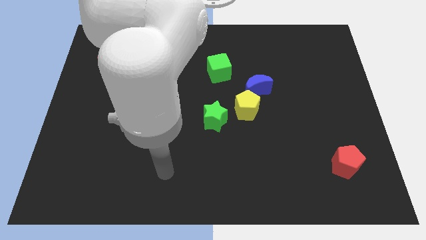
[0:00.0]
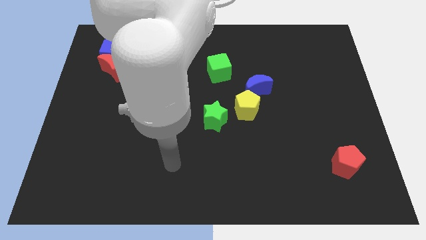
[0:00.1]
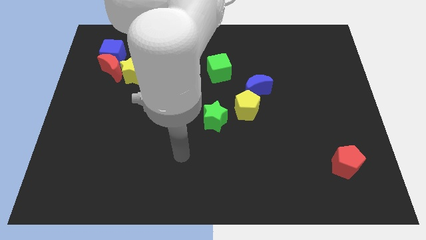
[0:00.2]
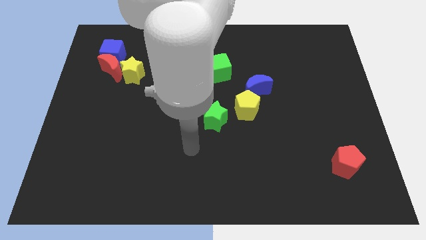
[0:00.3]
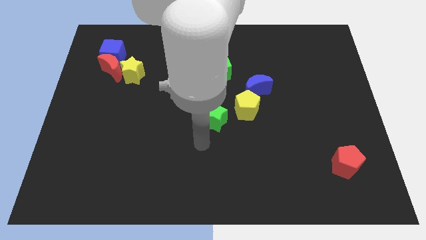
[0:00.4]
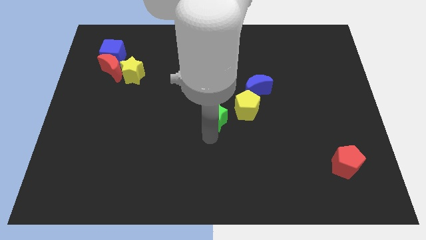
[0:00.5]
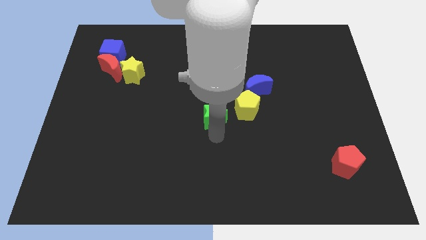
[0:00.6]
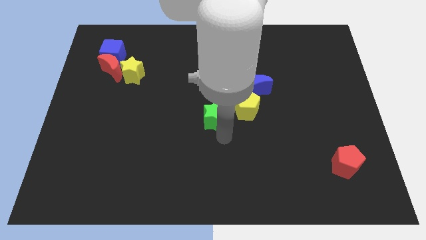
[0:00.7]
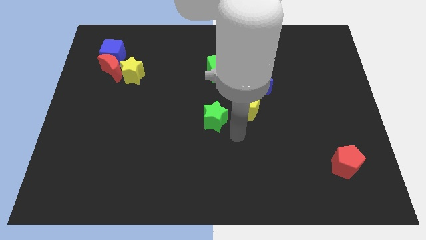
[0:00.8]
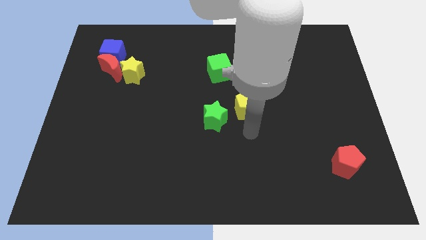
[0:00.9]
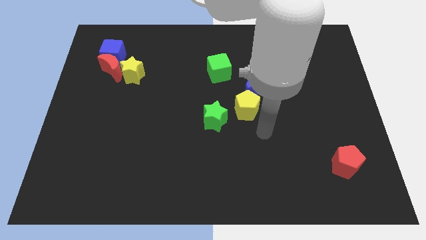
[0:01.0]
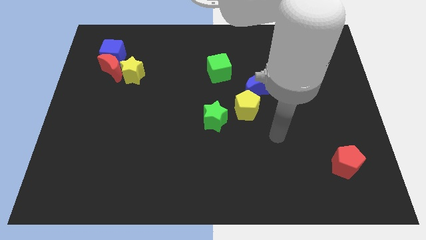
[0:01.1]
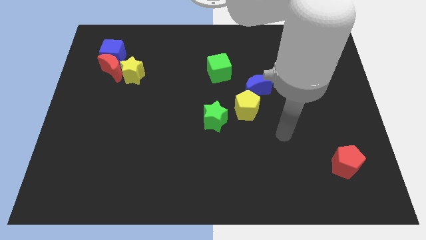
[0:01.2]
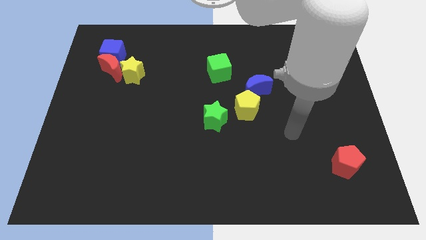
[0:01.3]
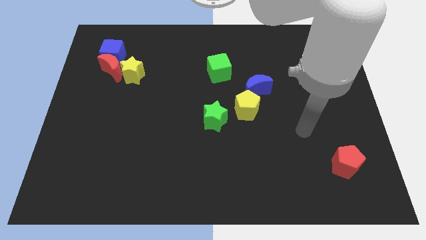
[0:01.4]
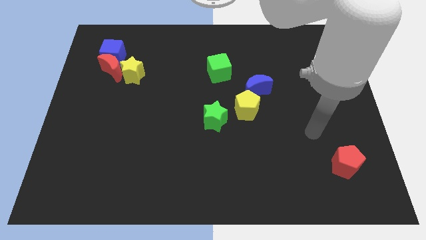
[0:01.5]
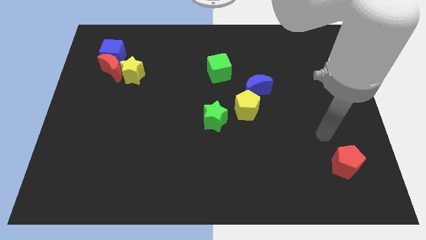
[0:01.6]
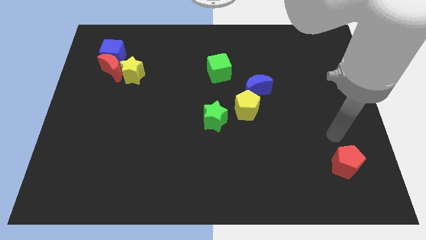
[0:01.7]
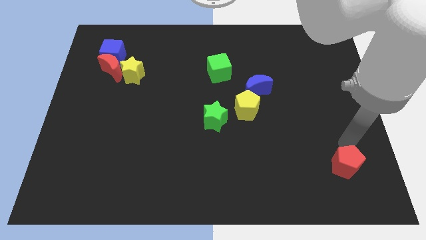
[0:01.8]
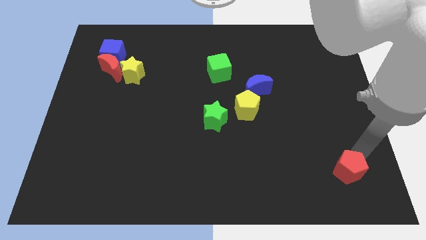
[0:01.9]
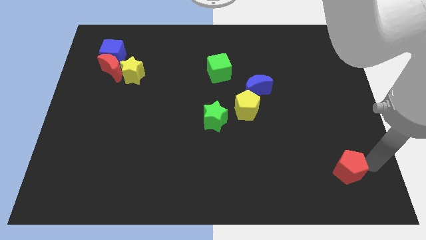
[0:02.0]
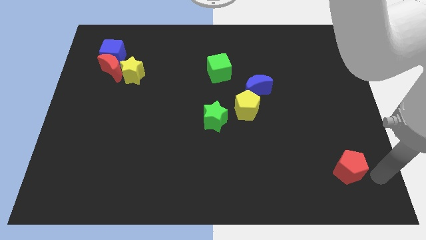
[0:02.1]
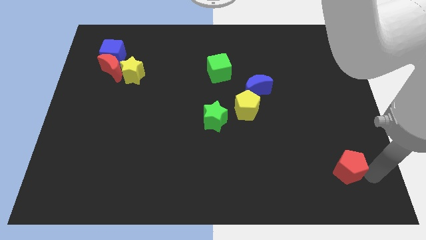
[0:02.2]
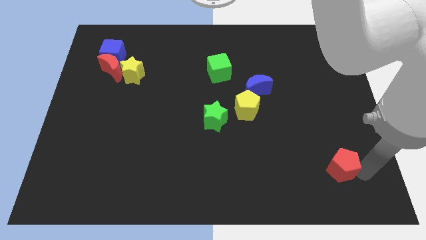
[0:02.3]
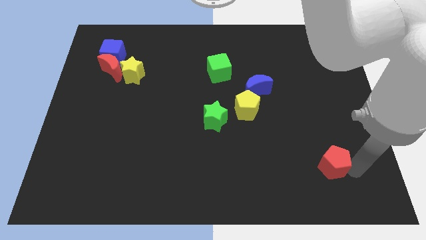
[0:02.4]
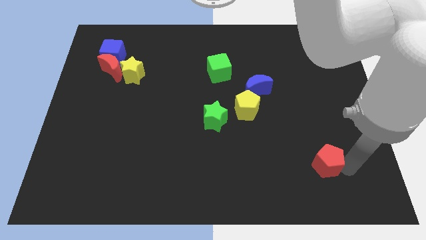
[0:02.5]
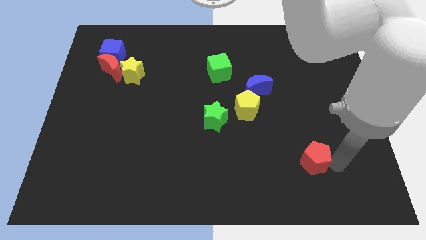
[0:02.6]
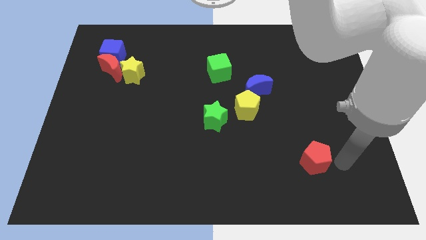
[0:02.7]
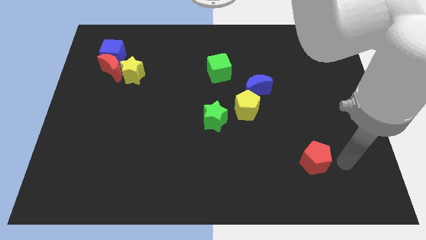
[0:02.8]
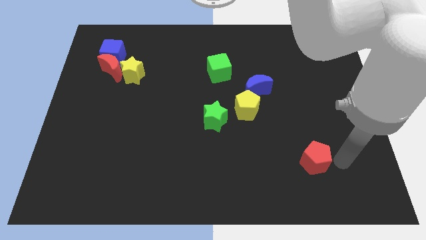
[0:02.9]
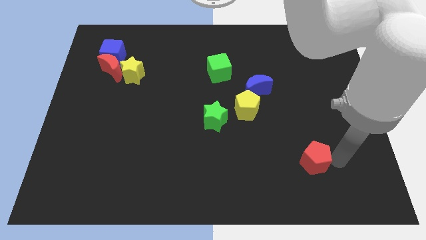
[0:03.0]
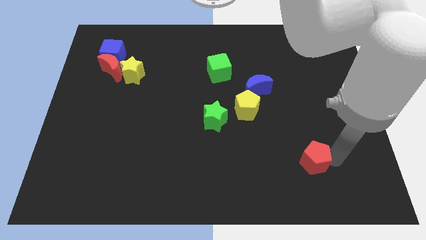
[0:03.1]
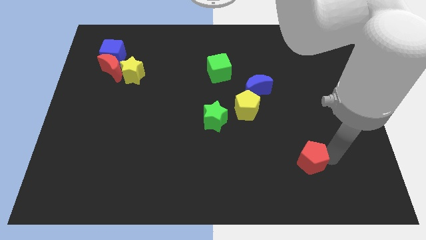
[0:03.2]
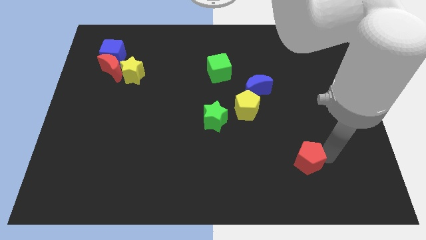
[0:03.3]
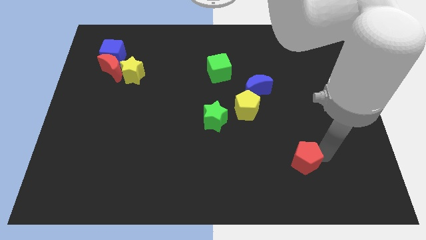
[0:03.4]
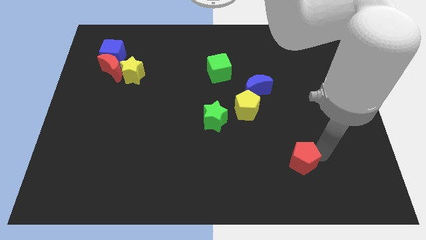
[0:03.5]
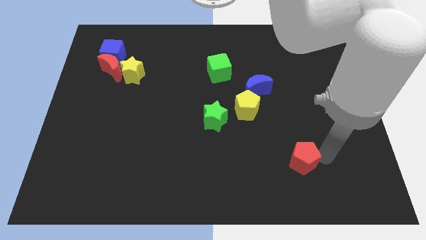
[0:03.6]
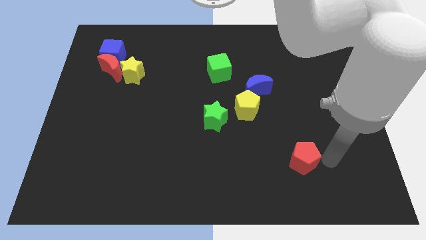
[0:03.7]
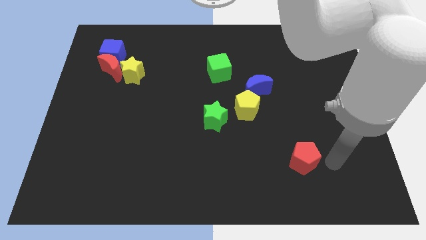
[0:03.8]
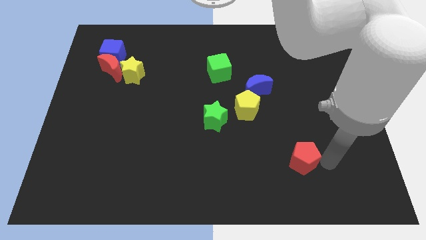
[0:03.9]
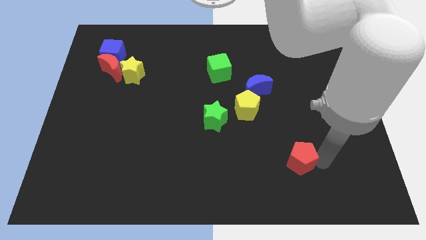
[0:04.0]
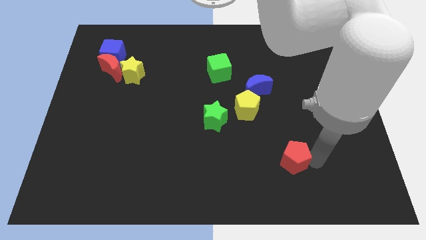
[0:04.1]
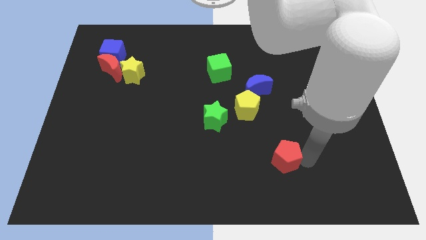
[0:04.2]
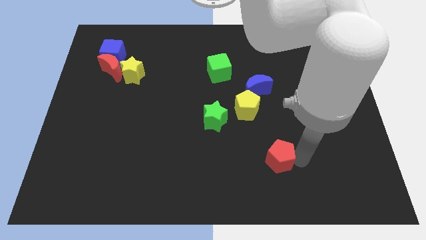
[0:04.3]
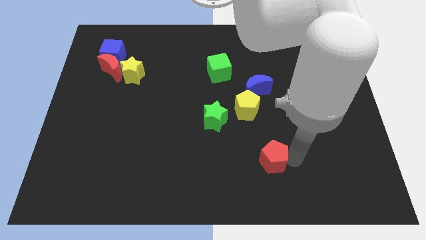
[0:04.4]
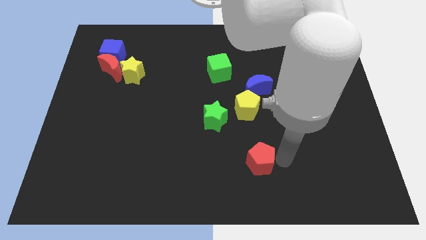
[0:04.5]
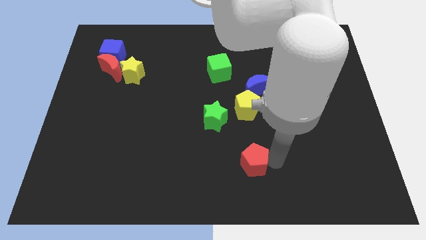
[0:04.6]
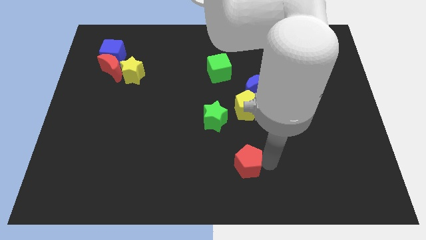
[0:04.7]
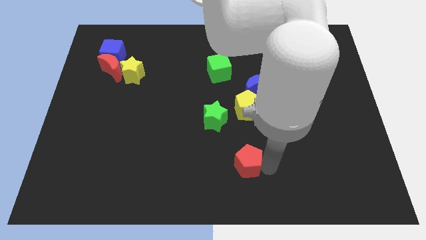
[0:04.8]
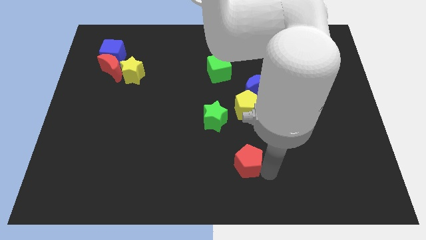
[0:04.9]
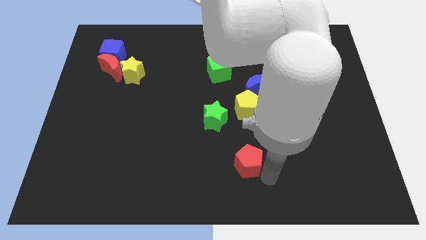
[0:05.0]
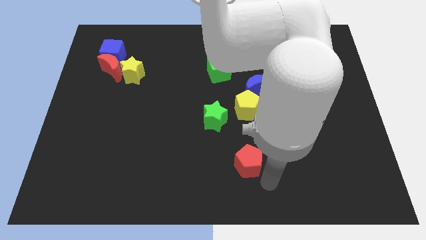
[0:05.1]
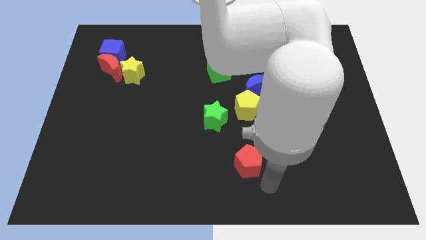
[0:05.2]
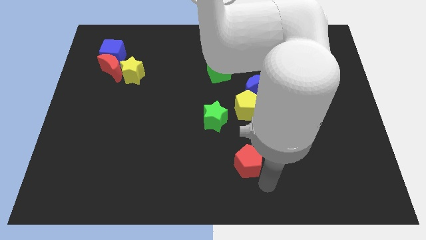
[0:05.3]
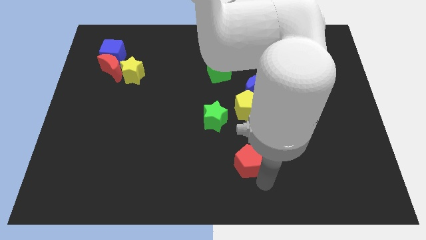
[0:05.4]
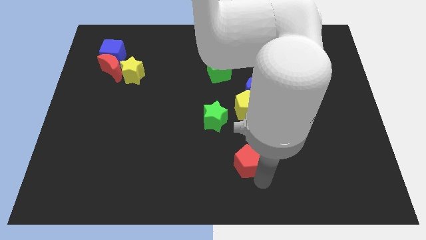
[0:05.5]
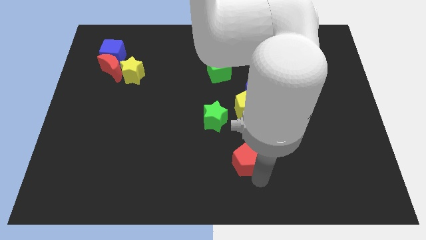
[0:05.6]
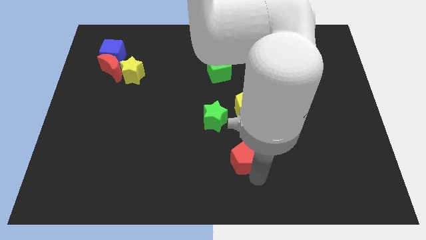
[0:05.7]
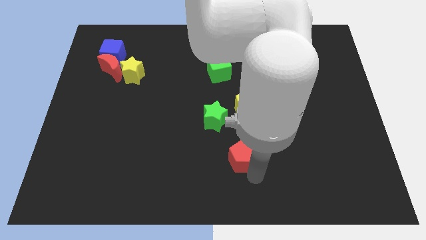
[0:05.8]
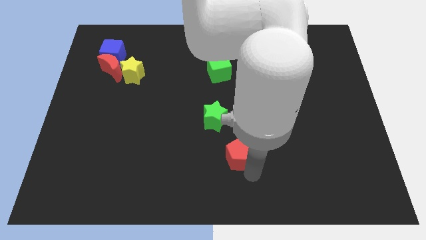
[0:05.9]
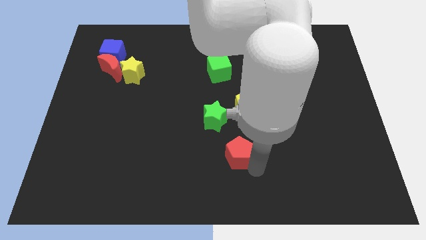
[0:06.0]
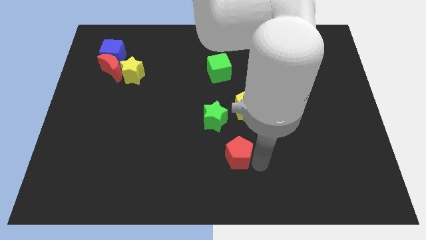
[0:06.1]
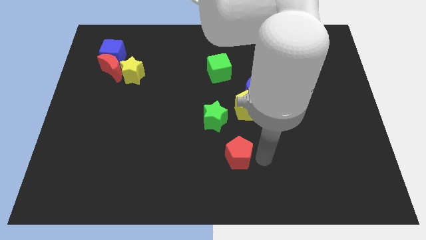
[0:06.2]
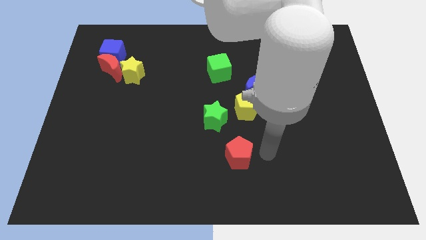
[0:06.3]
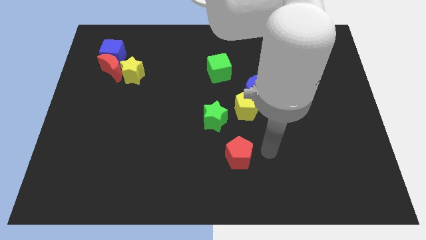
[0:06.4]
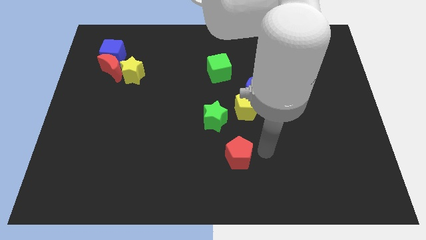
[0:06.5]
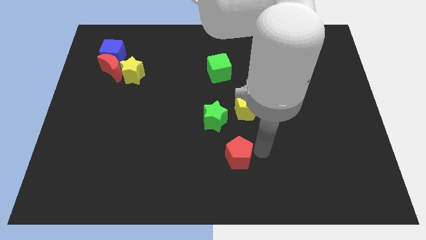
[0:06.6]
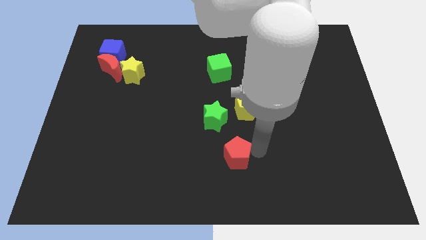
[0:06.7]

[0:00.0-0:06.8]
slide the red pentagon below the green star
